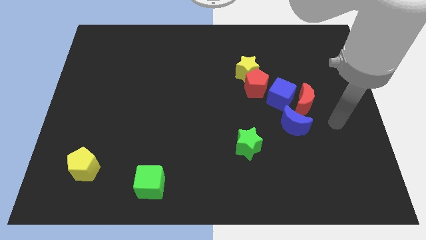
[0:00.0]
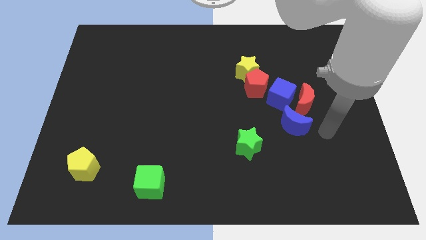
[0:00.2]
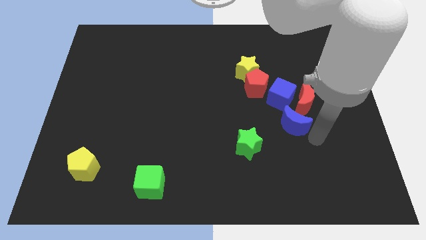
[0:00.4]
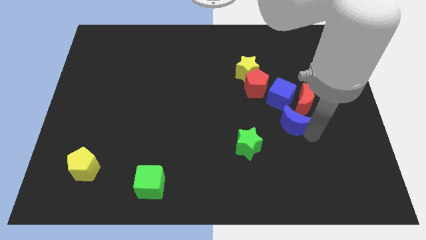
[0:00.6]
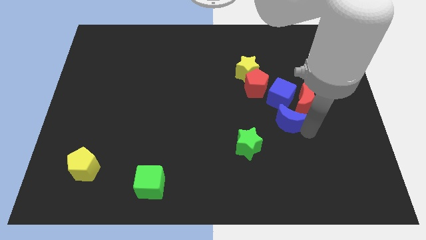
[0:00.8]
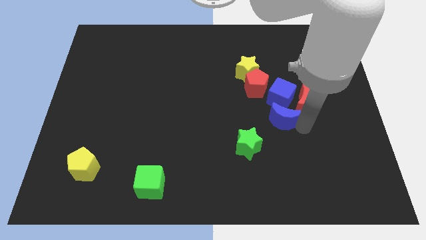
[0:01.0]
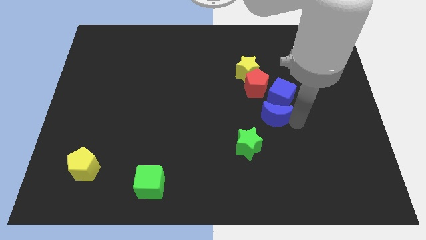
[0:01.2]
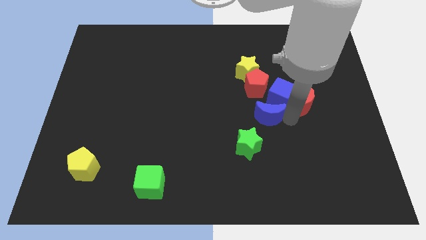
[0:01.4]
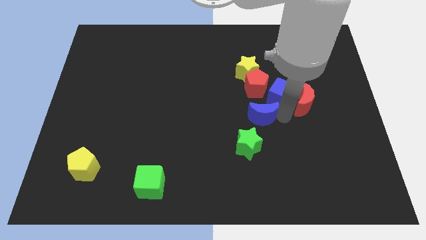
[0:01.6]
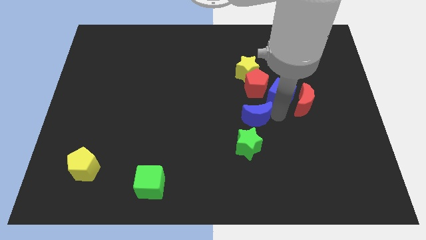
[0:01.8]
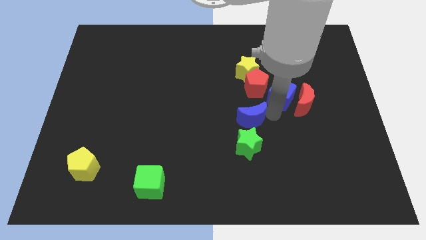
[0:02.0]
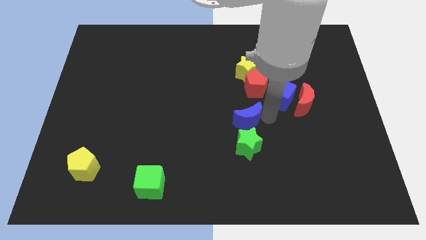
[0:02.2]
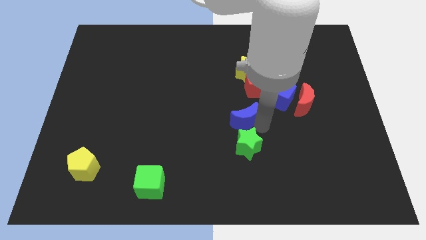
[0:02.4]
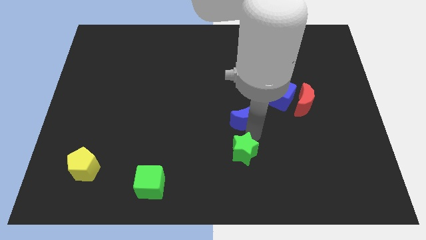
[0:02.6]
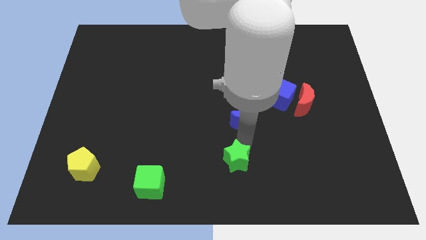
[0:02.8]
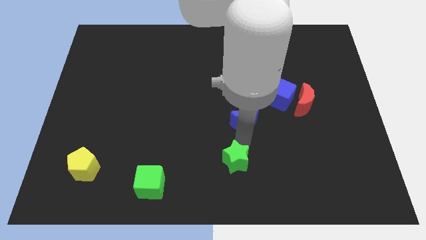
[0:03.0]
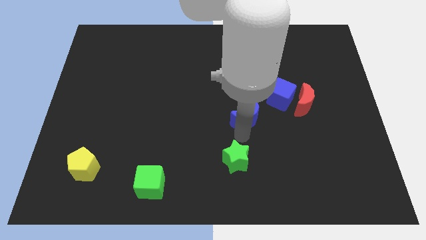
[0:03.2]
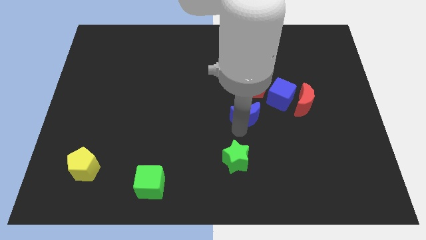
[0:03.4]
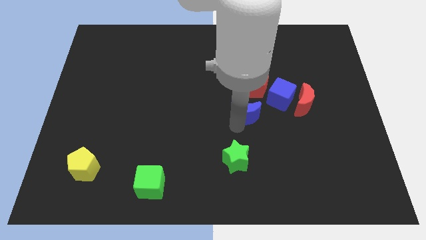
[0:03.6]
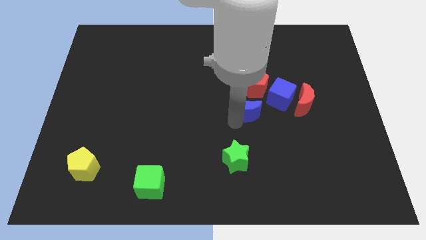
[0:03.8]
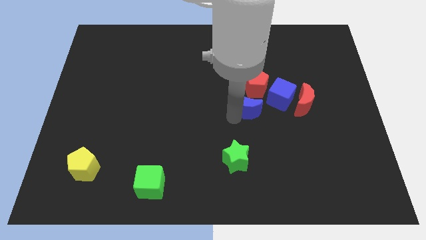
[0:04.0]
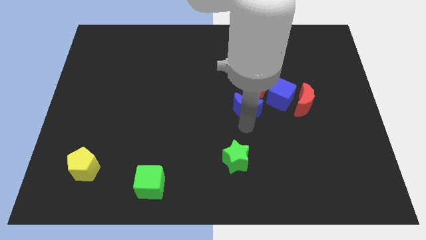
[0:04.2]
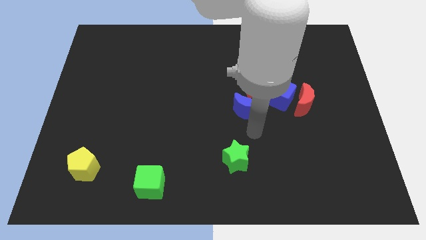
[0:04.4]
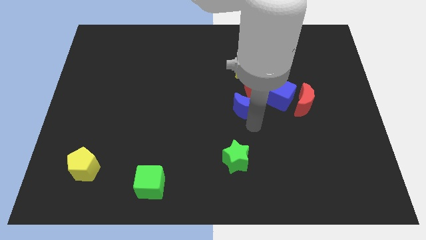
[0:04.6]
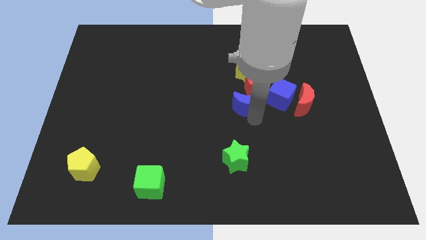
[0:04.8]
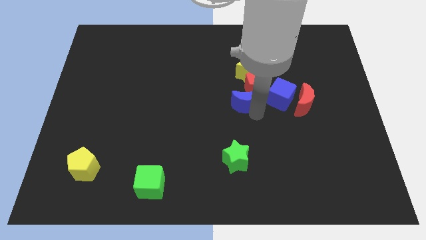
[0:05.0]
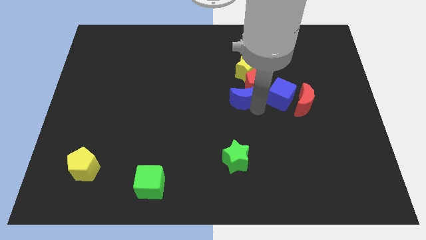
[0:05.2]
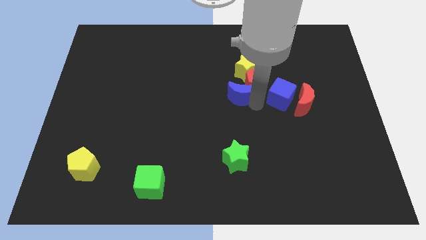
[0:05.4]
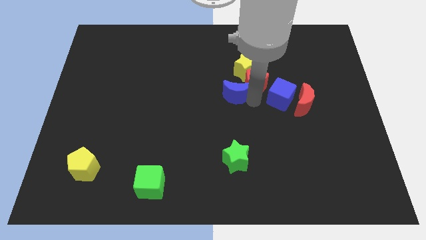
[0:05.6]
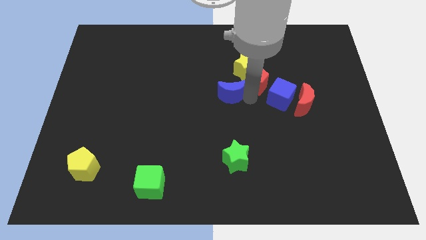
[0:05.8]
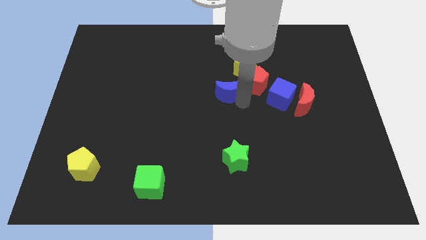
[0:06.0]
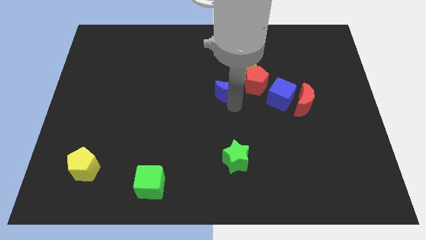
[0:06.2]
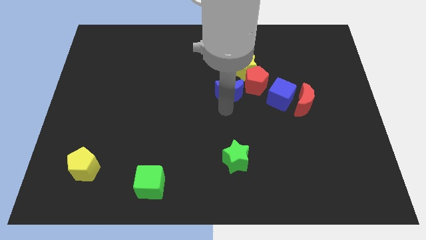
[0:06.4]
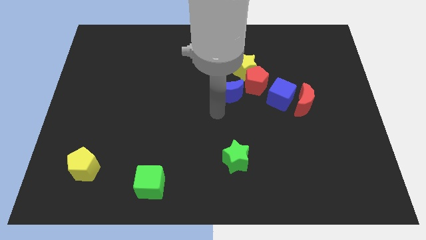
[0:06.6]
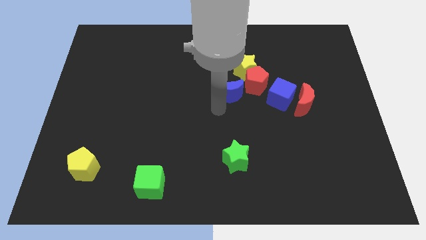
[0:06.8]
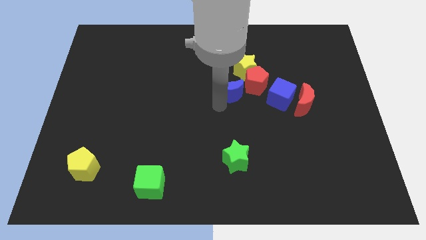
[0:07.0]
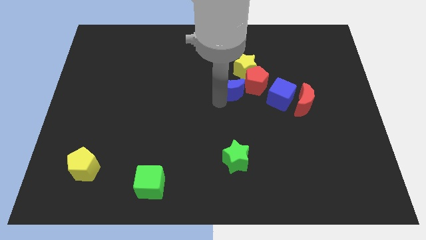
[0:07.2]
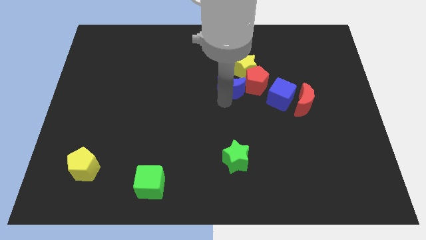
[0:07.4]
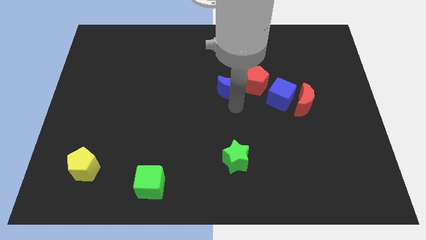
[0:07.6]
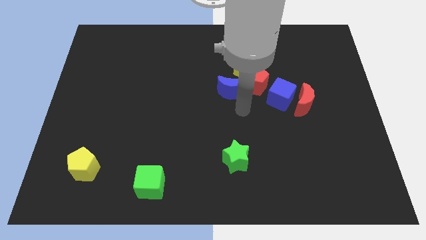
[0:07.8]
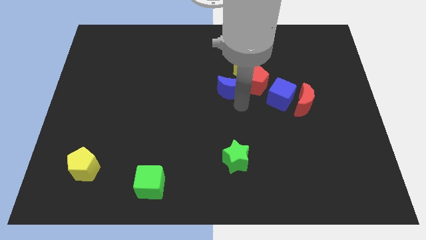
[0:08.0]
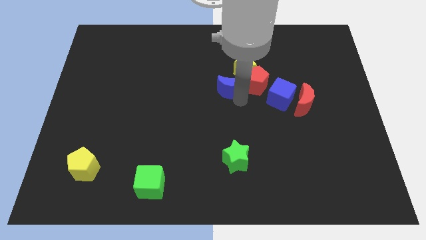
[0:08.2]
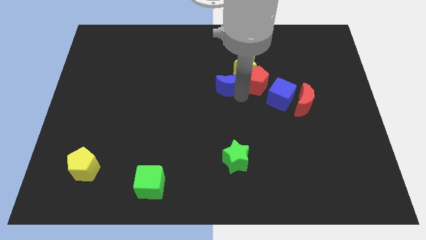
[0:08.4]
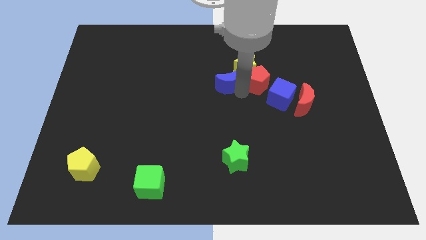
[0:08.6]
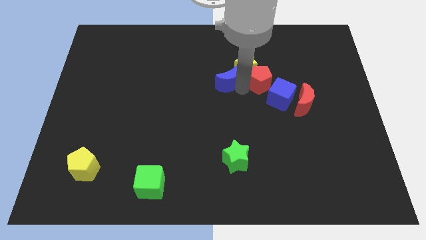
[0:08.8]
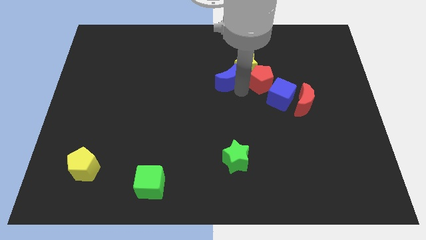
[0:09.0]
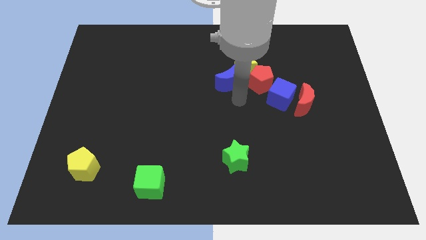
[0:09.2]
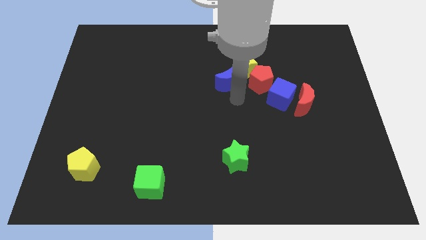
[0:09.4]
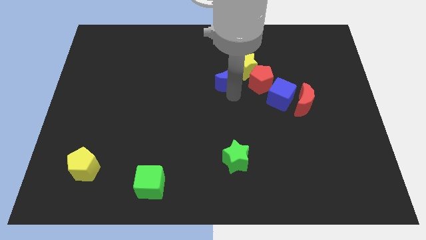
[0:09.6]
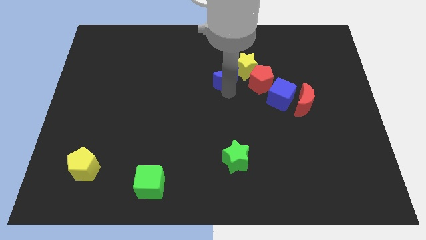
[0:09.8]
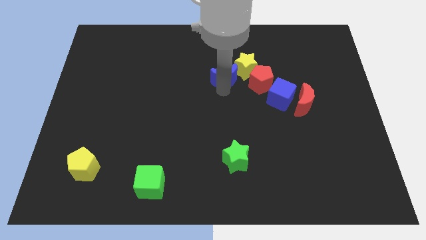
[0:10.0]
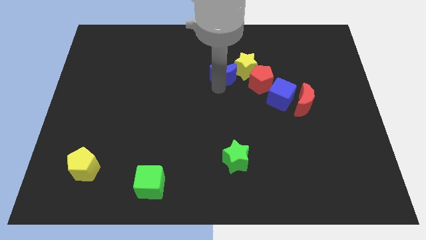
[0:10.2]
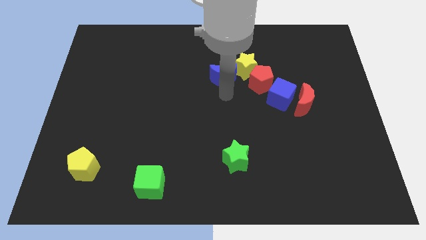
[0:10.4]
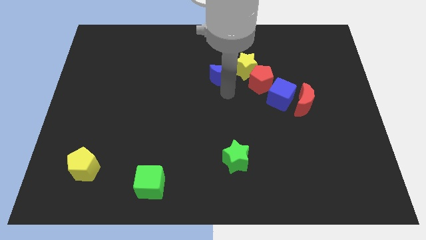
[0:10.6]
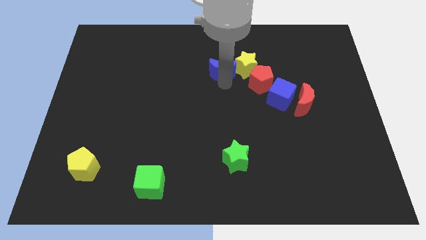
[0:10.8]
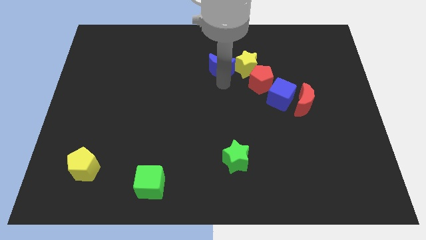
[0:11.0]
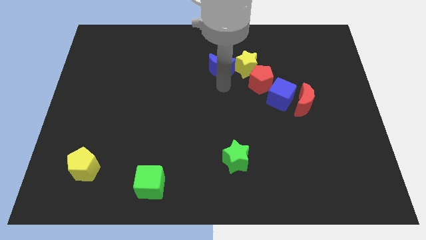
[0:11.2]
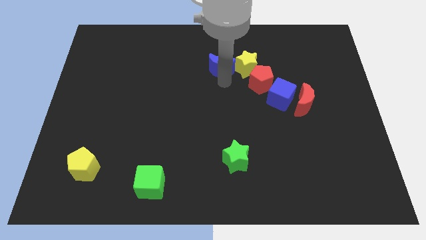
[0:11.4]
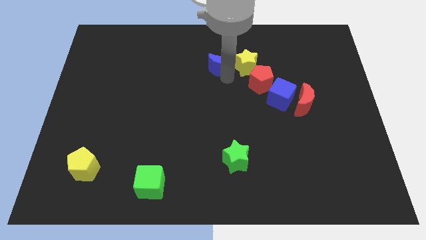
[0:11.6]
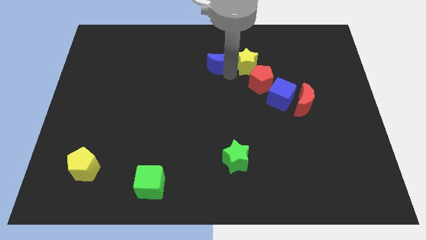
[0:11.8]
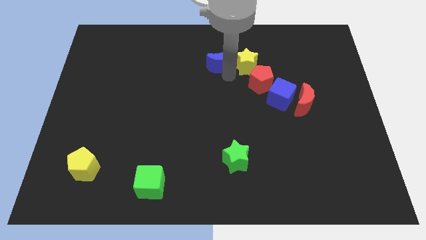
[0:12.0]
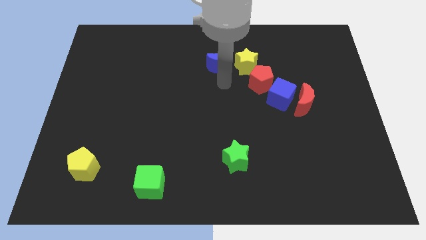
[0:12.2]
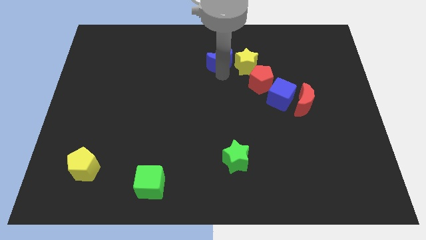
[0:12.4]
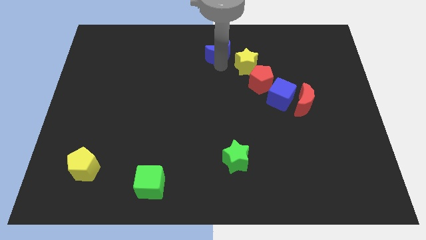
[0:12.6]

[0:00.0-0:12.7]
push the blue moon to the top side

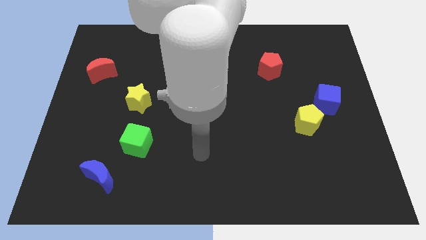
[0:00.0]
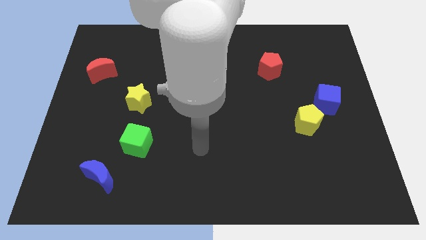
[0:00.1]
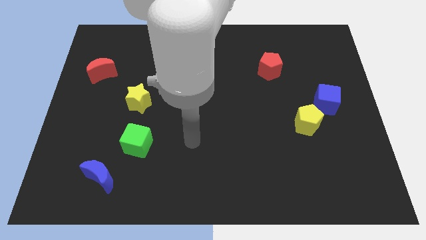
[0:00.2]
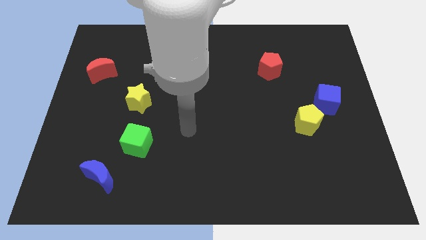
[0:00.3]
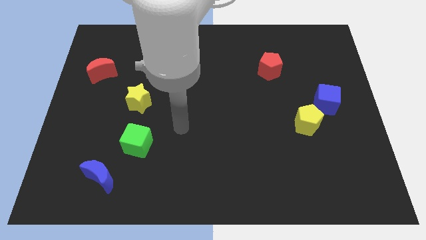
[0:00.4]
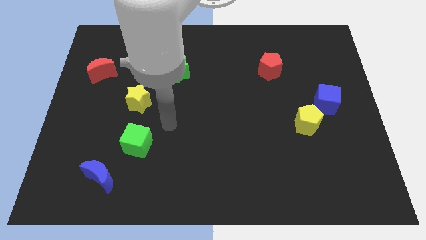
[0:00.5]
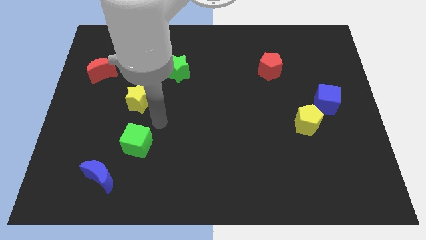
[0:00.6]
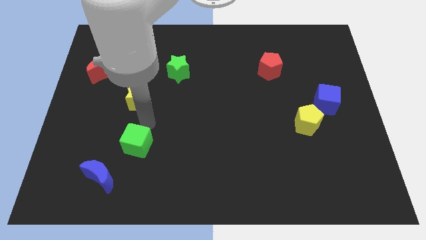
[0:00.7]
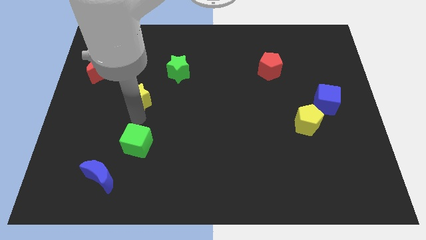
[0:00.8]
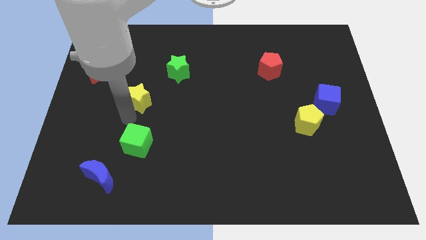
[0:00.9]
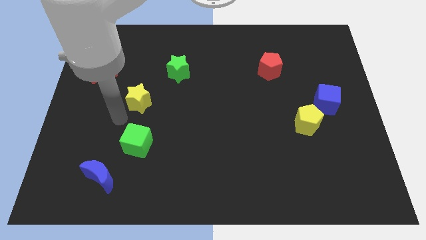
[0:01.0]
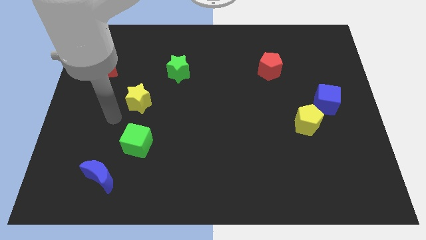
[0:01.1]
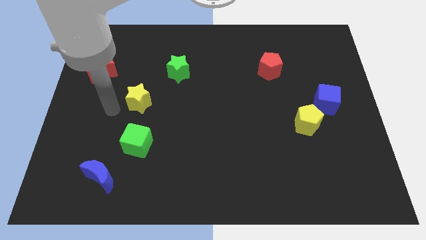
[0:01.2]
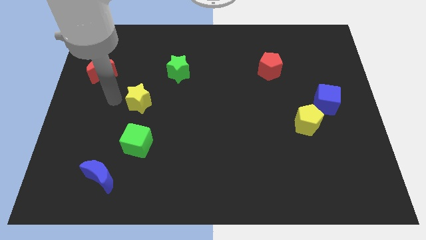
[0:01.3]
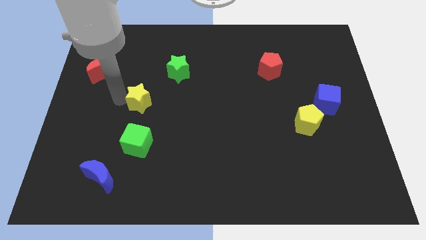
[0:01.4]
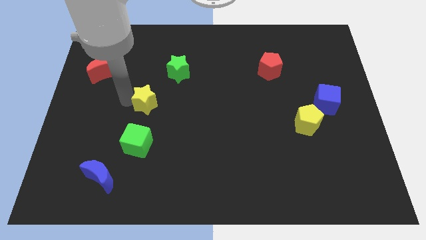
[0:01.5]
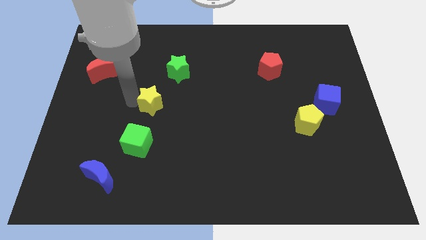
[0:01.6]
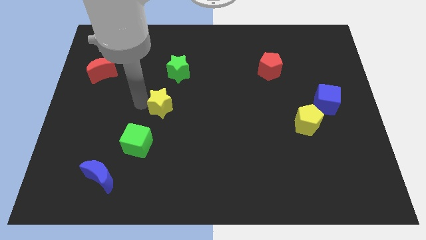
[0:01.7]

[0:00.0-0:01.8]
push the yellow star to the middle
